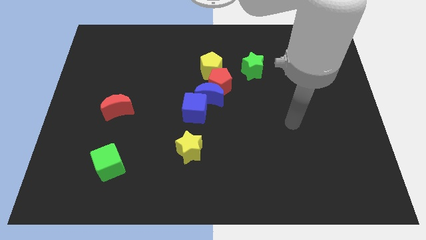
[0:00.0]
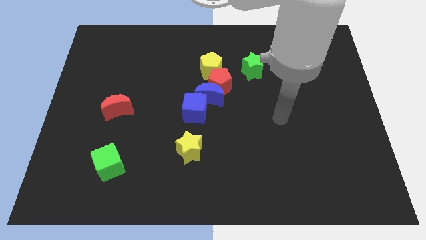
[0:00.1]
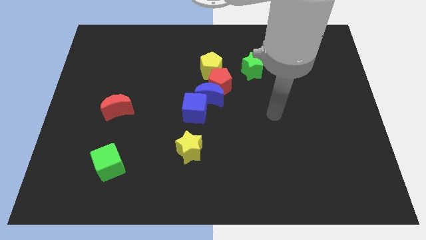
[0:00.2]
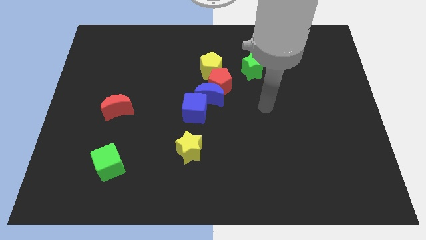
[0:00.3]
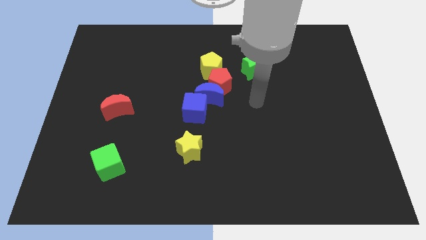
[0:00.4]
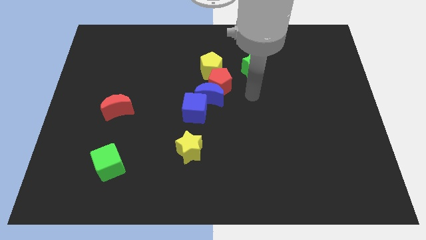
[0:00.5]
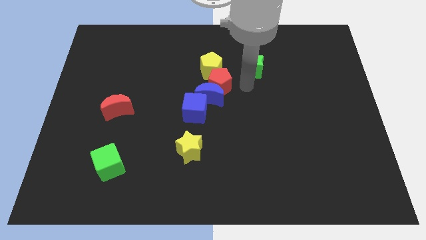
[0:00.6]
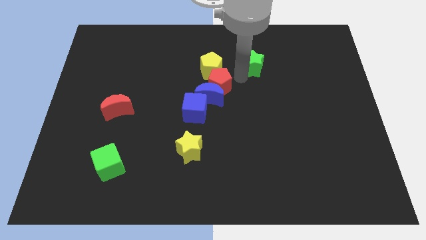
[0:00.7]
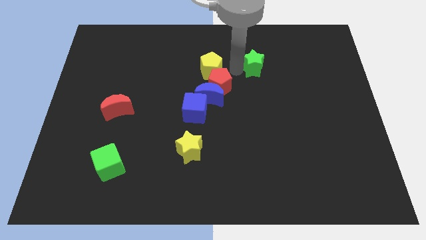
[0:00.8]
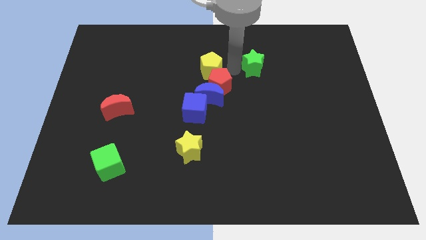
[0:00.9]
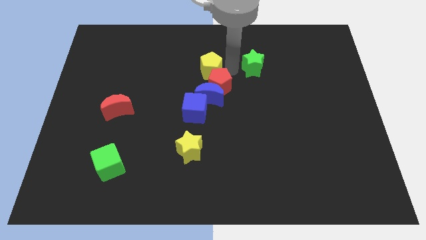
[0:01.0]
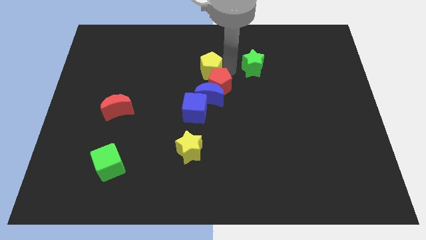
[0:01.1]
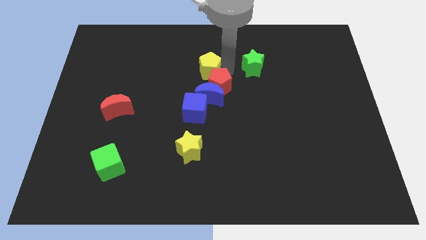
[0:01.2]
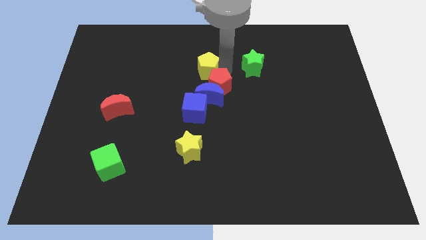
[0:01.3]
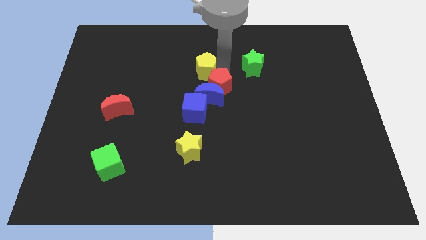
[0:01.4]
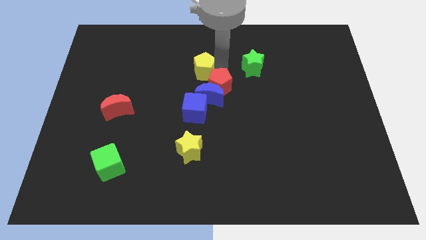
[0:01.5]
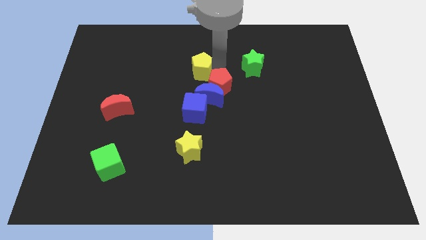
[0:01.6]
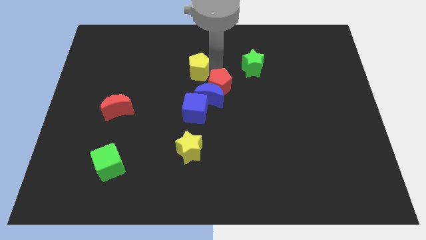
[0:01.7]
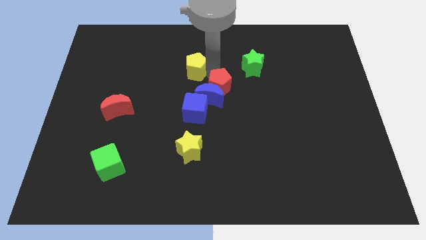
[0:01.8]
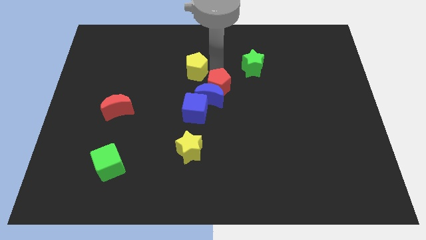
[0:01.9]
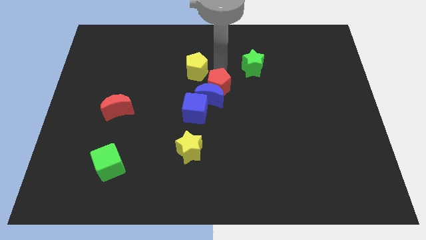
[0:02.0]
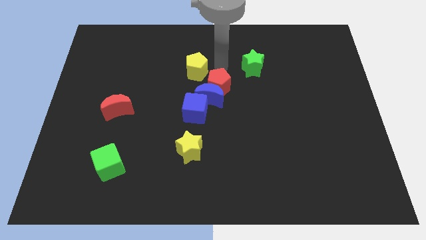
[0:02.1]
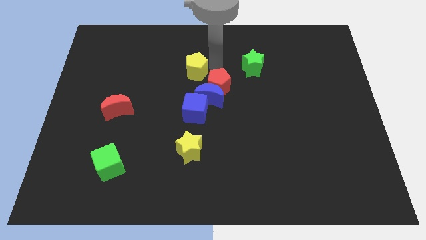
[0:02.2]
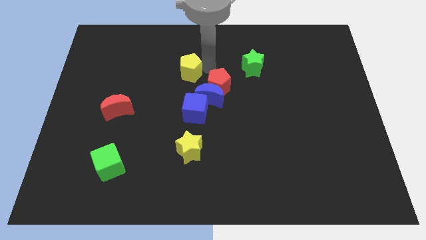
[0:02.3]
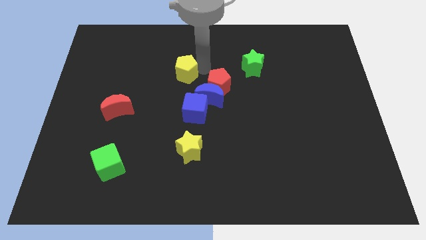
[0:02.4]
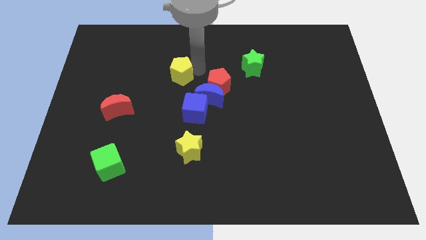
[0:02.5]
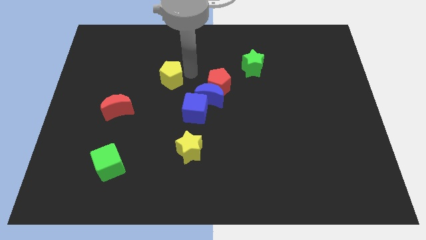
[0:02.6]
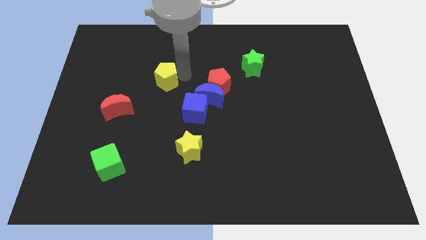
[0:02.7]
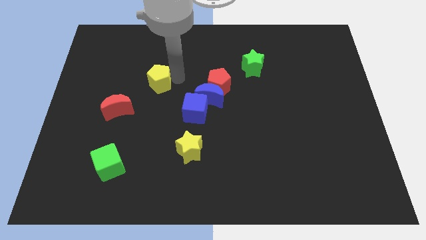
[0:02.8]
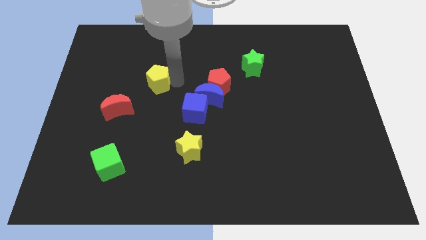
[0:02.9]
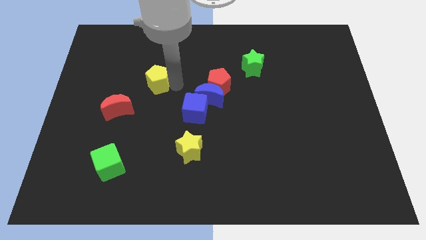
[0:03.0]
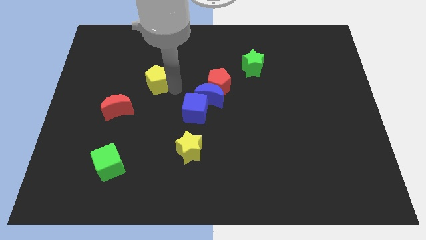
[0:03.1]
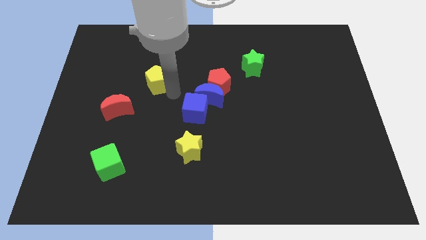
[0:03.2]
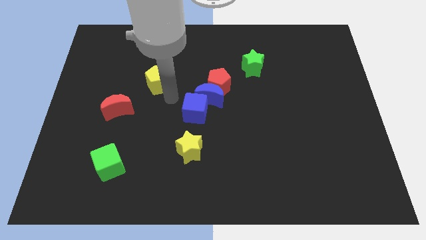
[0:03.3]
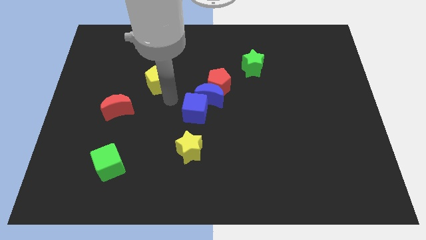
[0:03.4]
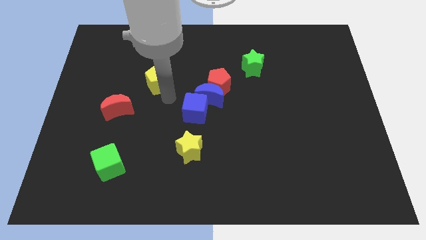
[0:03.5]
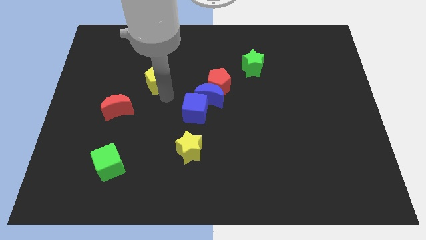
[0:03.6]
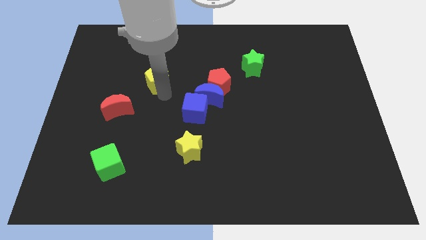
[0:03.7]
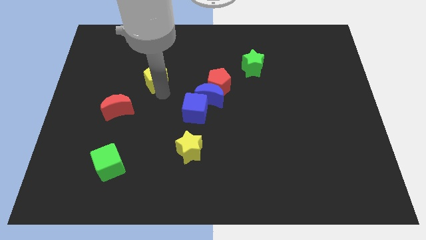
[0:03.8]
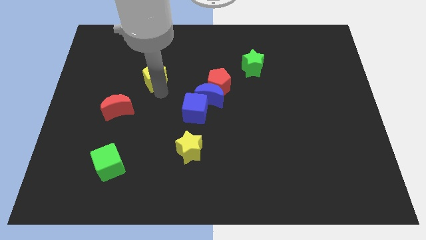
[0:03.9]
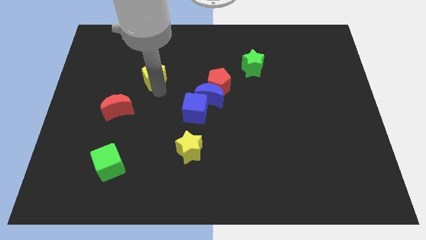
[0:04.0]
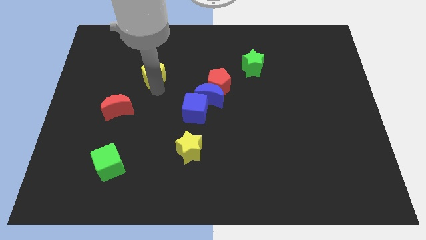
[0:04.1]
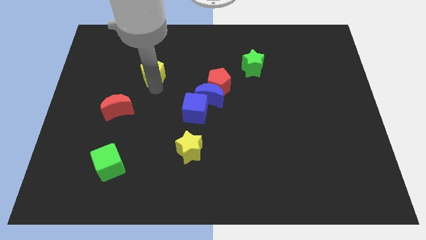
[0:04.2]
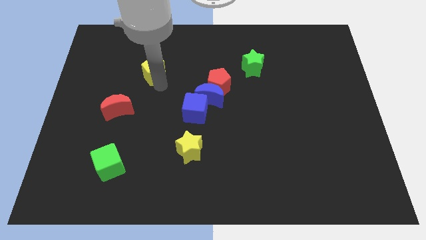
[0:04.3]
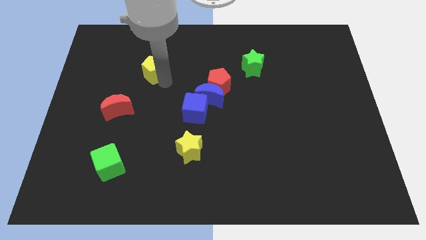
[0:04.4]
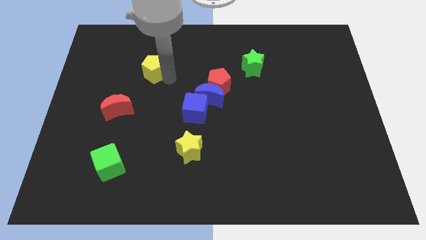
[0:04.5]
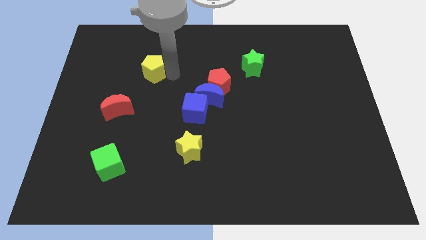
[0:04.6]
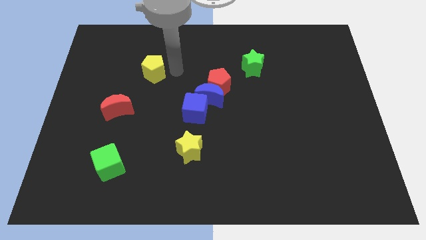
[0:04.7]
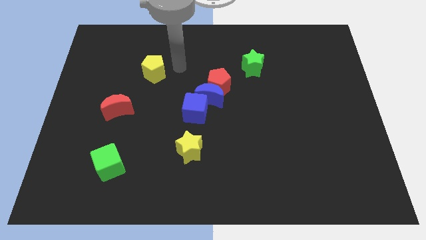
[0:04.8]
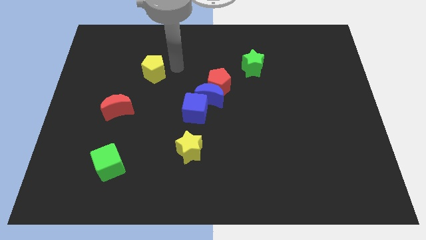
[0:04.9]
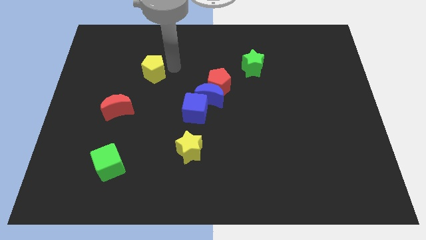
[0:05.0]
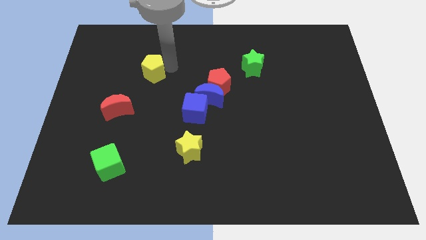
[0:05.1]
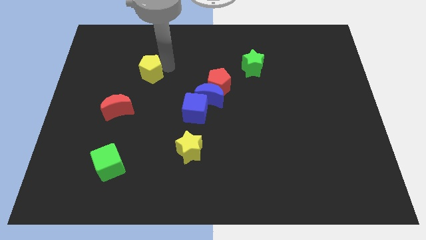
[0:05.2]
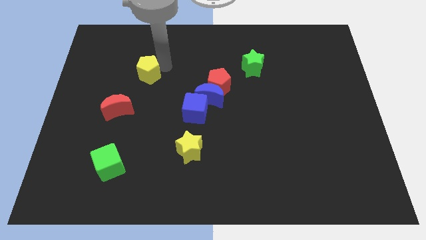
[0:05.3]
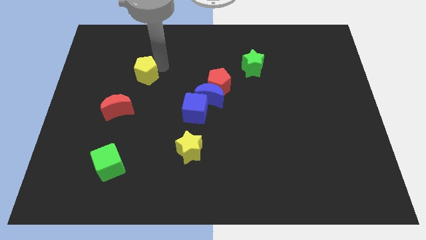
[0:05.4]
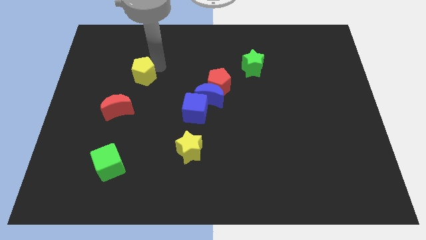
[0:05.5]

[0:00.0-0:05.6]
move the yellow pentagon above the red moon

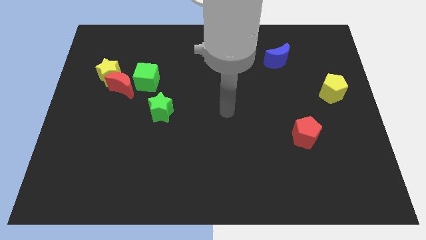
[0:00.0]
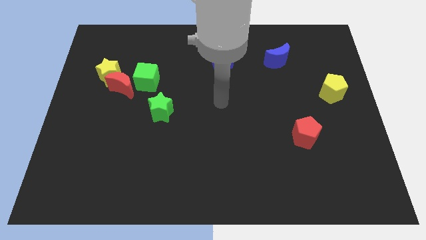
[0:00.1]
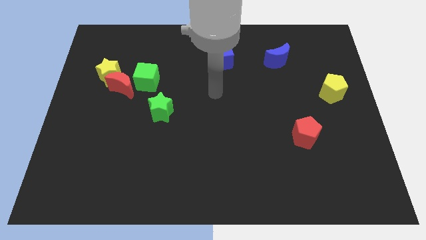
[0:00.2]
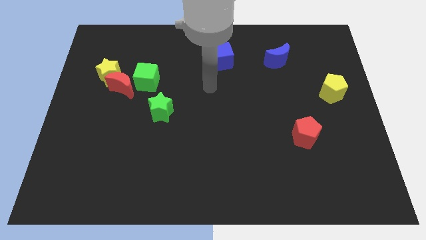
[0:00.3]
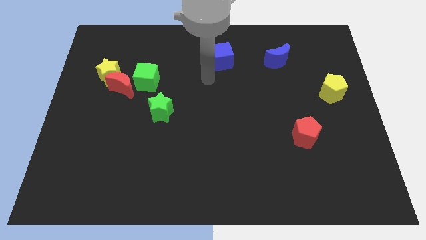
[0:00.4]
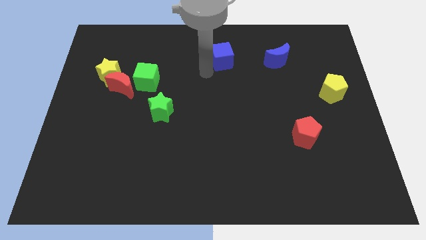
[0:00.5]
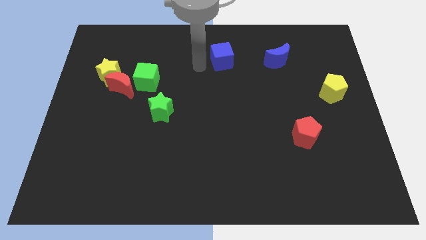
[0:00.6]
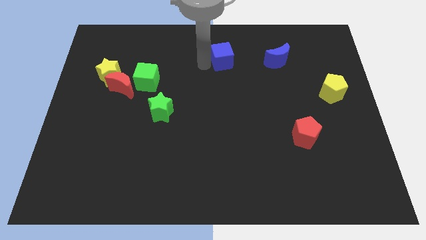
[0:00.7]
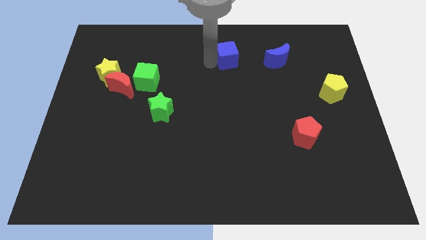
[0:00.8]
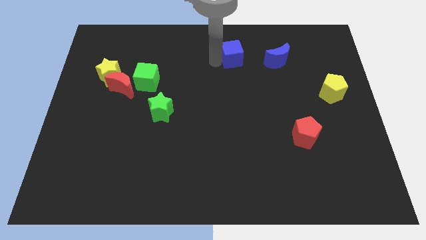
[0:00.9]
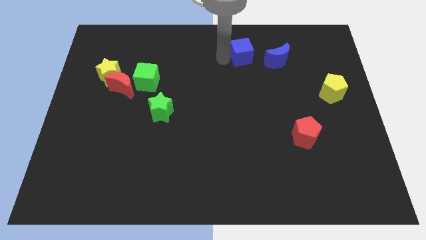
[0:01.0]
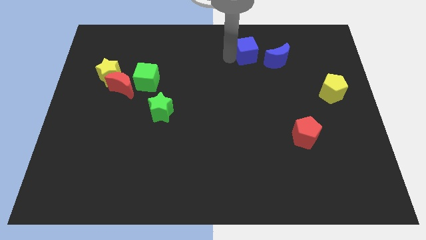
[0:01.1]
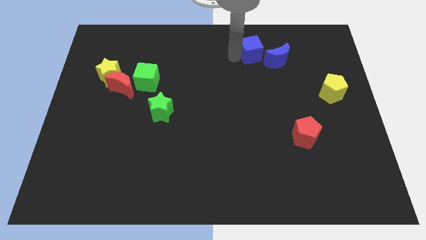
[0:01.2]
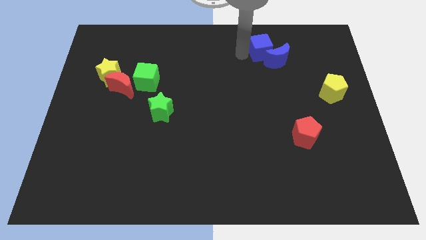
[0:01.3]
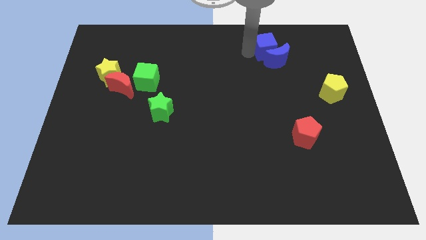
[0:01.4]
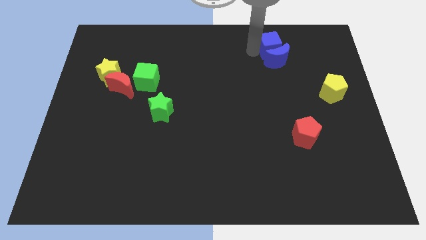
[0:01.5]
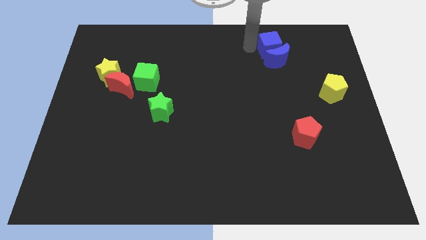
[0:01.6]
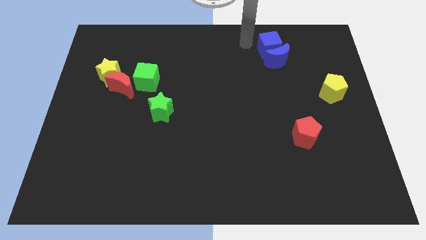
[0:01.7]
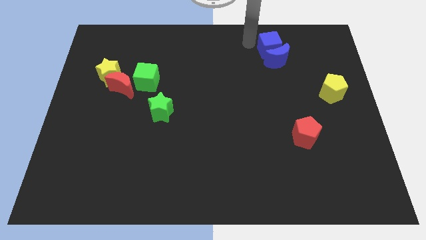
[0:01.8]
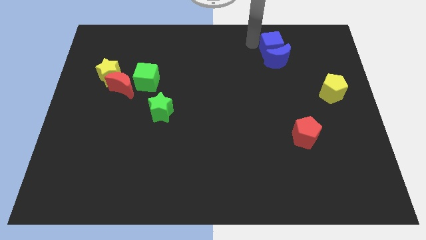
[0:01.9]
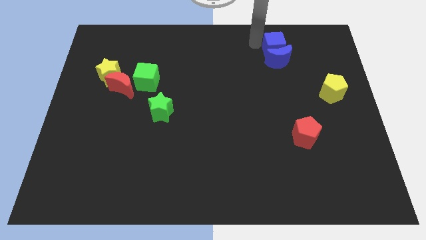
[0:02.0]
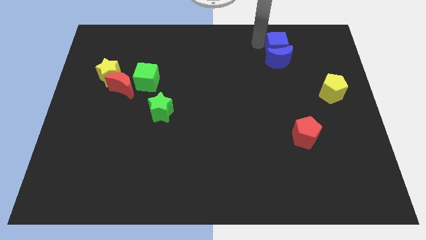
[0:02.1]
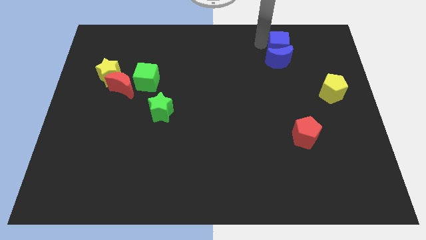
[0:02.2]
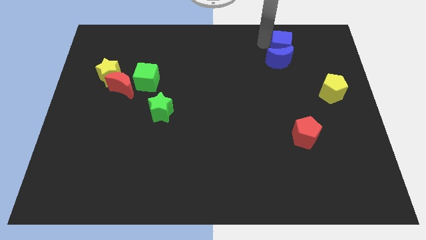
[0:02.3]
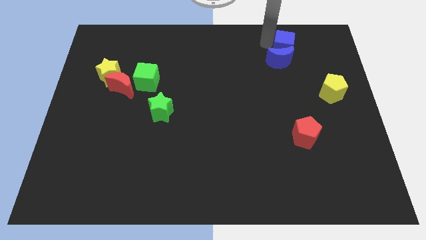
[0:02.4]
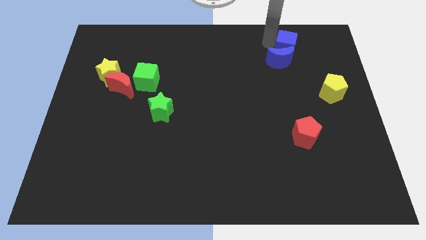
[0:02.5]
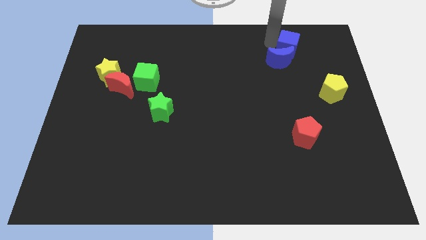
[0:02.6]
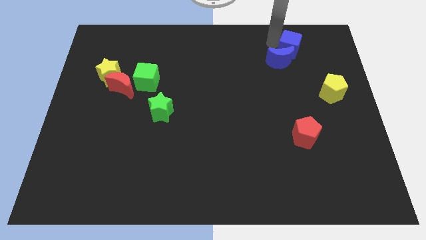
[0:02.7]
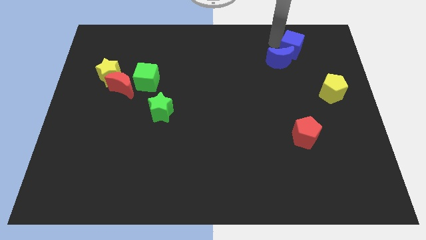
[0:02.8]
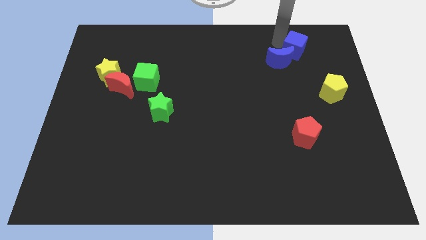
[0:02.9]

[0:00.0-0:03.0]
slide the blue cube just right of the blue moon
